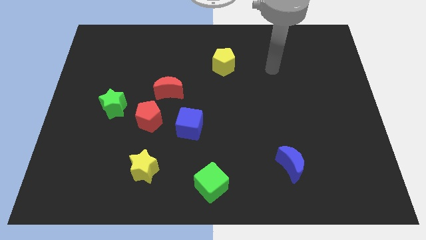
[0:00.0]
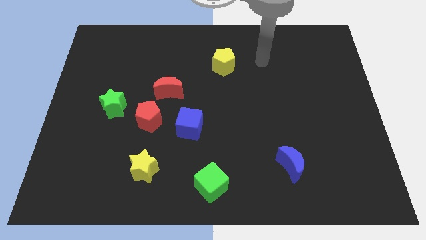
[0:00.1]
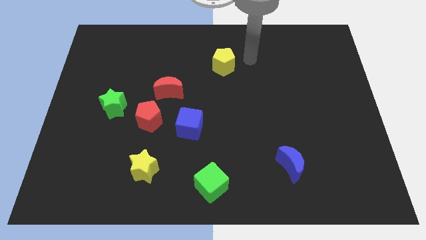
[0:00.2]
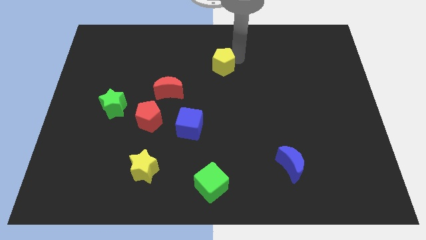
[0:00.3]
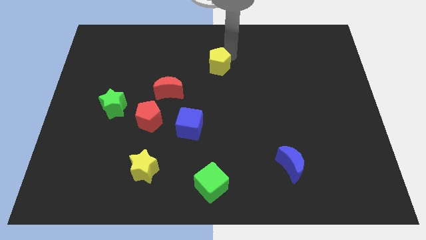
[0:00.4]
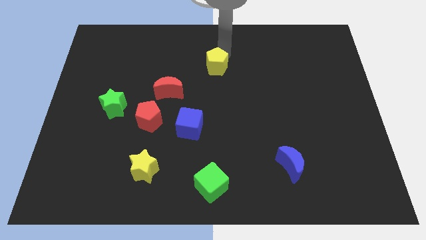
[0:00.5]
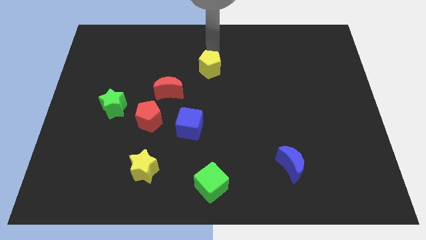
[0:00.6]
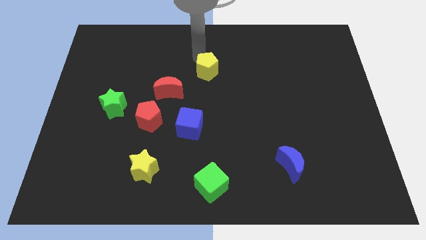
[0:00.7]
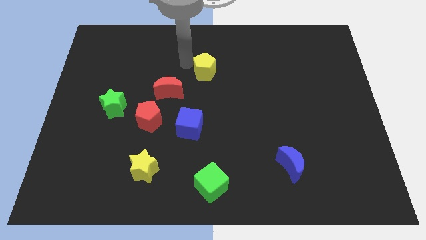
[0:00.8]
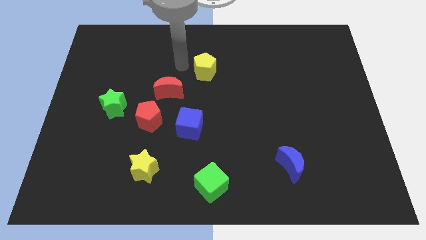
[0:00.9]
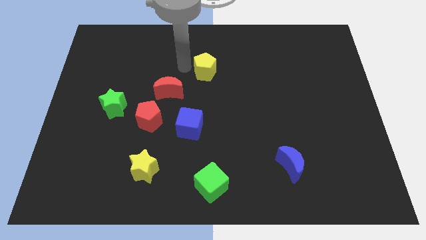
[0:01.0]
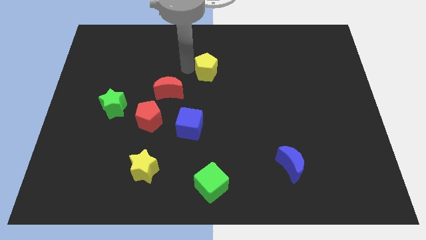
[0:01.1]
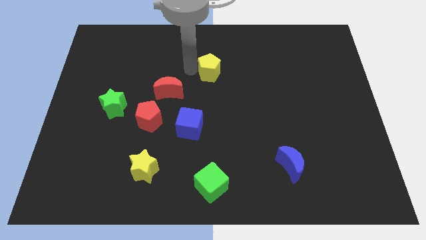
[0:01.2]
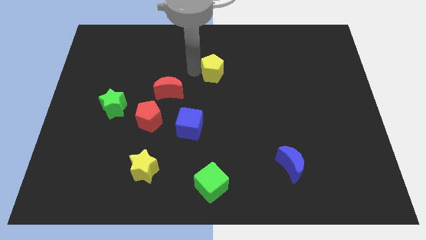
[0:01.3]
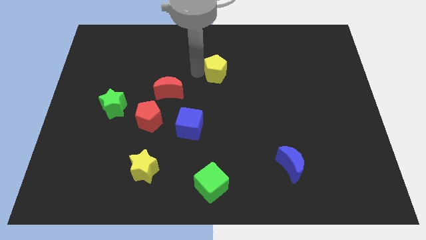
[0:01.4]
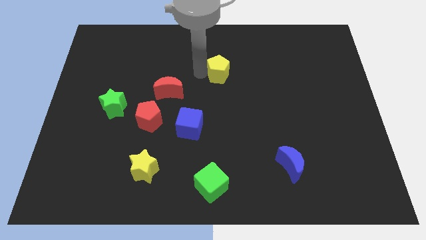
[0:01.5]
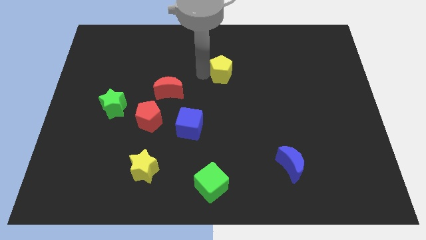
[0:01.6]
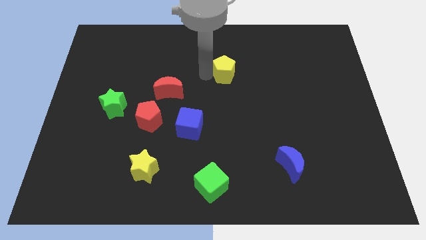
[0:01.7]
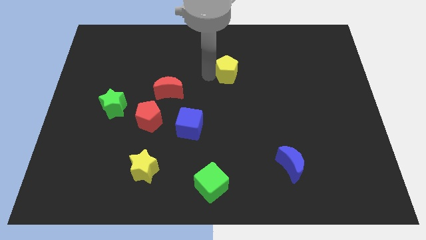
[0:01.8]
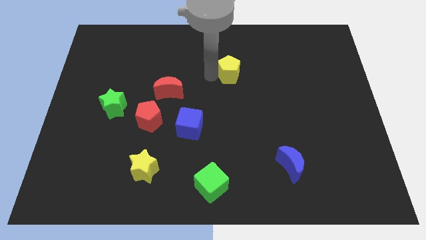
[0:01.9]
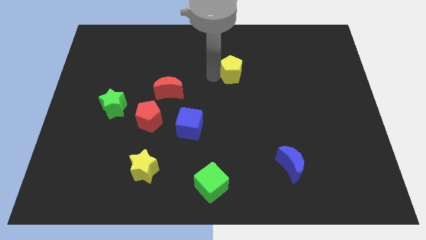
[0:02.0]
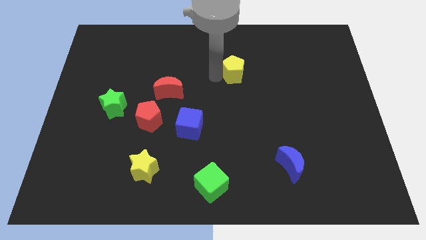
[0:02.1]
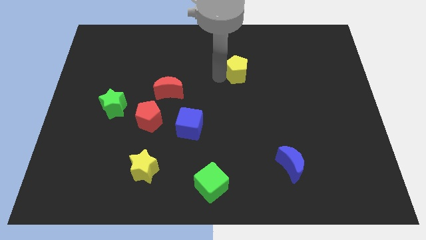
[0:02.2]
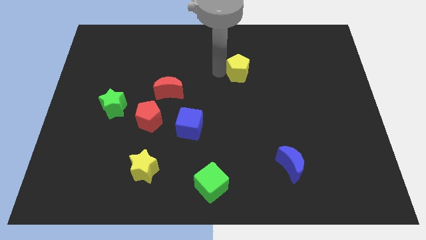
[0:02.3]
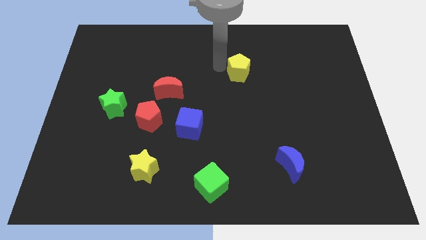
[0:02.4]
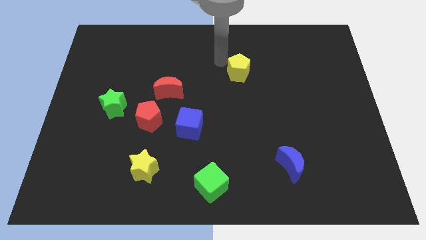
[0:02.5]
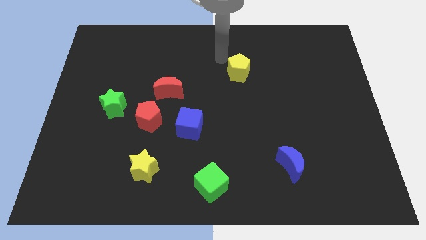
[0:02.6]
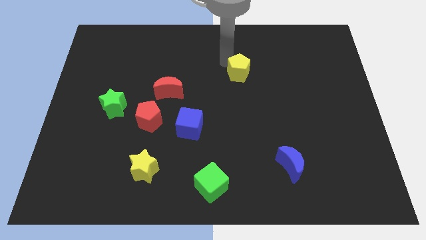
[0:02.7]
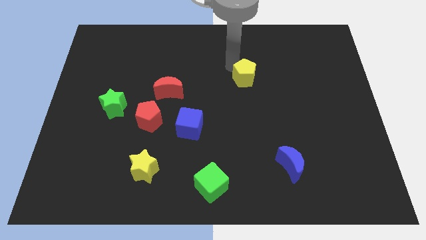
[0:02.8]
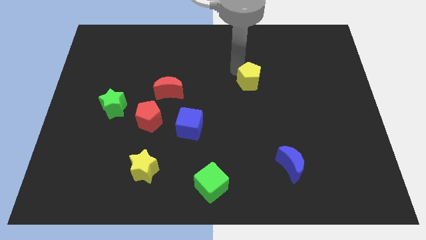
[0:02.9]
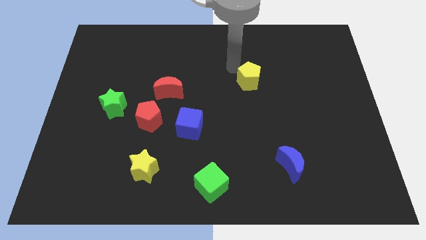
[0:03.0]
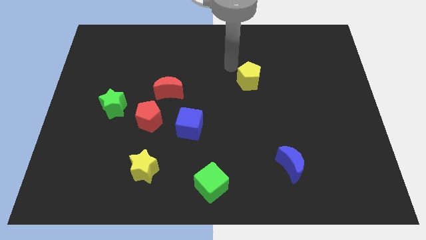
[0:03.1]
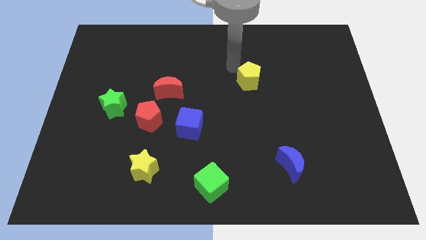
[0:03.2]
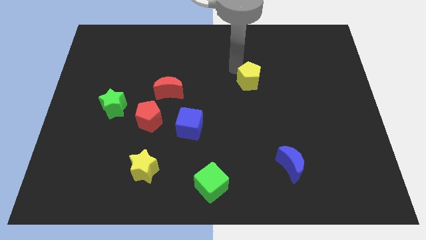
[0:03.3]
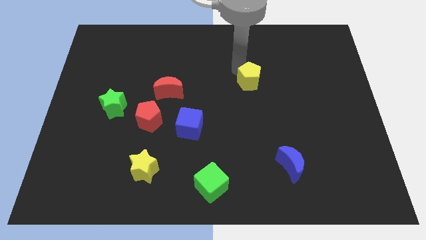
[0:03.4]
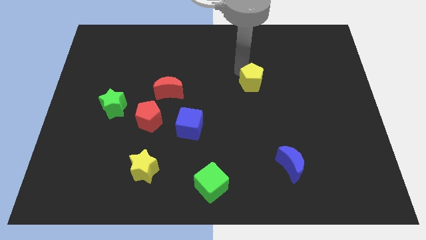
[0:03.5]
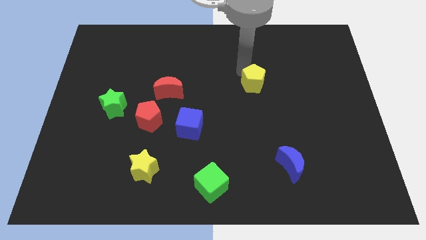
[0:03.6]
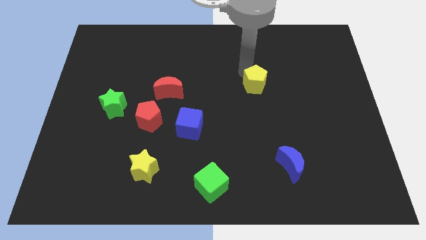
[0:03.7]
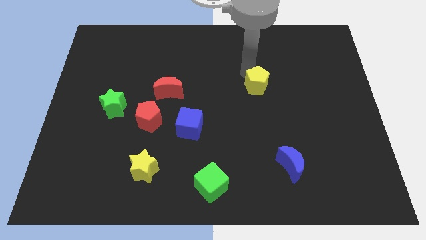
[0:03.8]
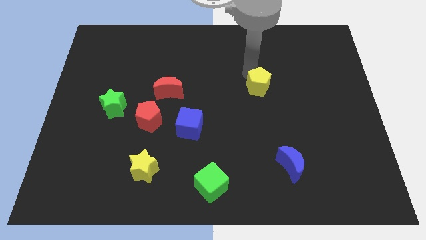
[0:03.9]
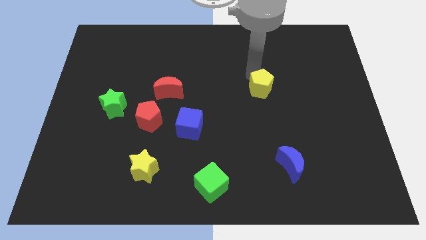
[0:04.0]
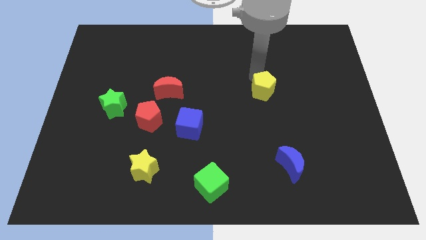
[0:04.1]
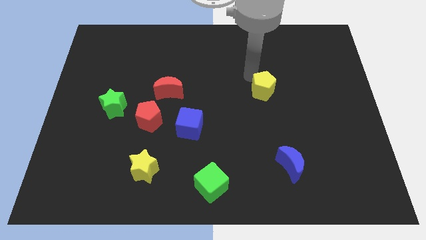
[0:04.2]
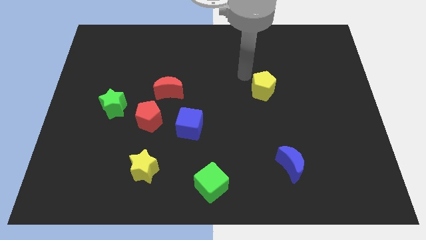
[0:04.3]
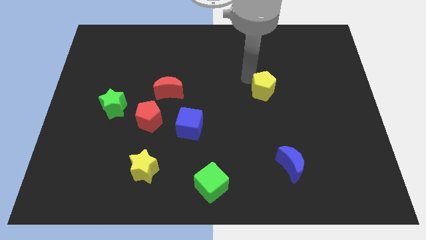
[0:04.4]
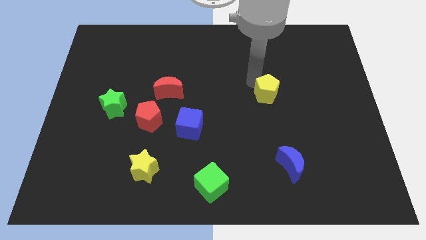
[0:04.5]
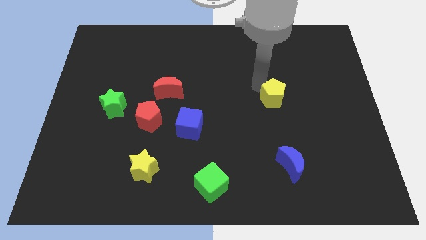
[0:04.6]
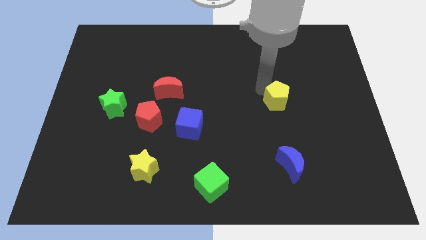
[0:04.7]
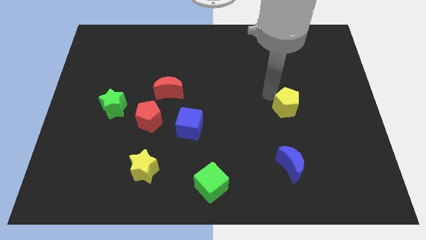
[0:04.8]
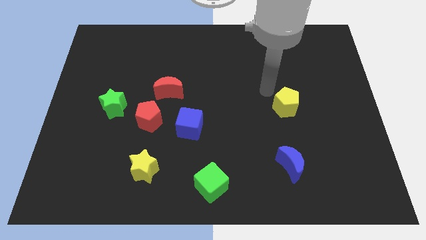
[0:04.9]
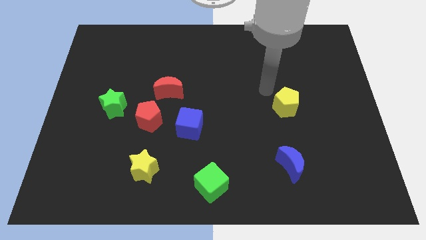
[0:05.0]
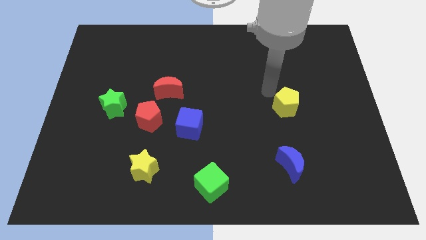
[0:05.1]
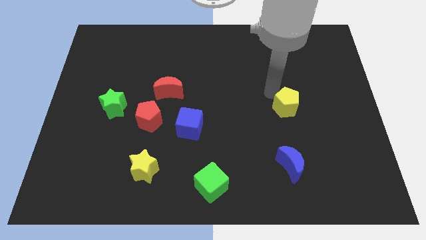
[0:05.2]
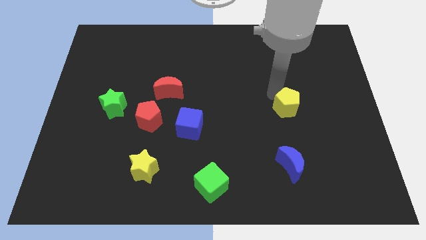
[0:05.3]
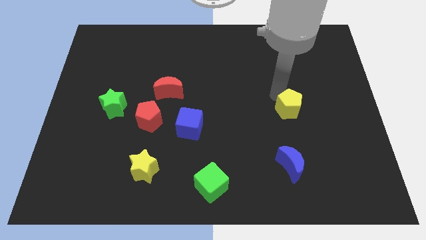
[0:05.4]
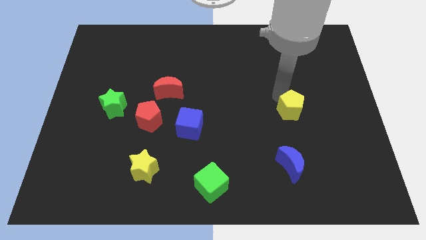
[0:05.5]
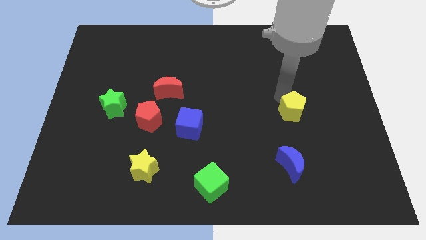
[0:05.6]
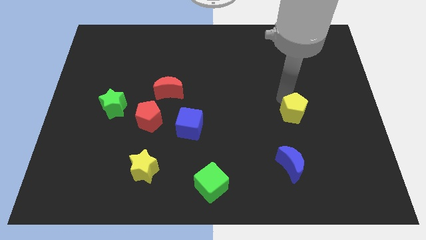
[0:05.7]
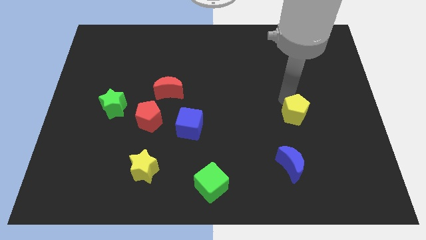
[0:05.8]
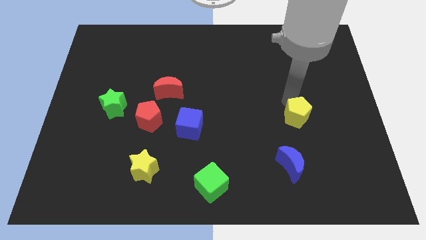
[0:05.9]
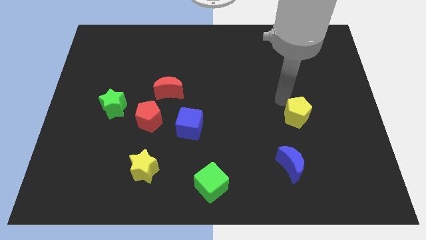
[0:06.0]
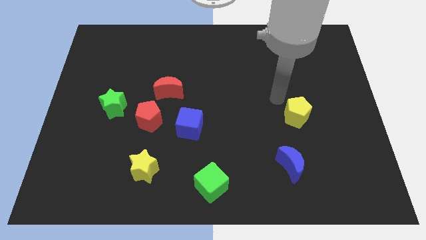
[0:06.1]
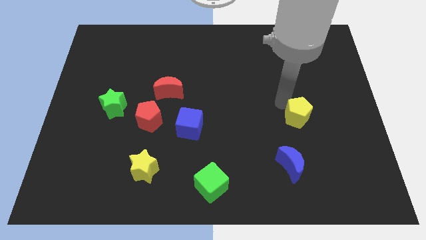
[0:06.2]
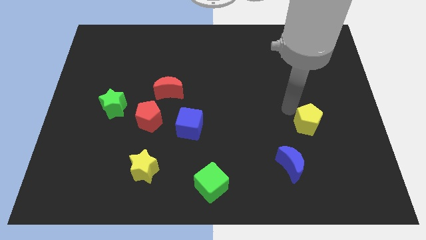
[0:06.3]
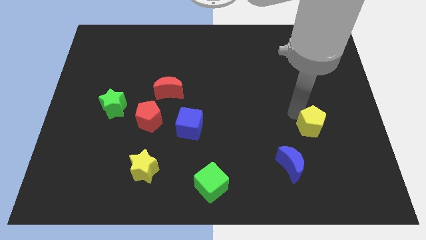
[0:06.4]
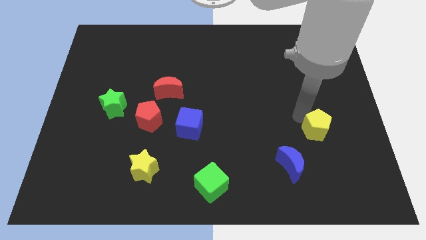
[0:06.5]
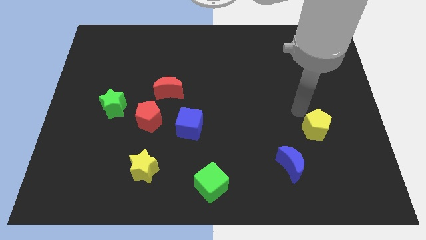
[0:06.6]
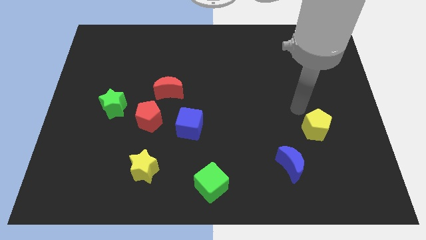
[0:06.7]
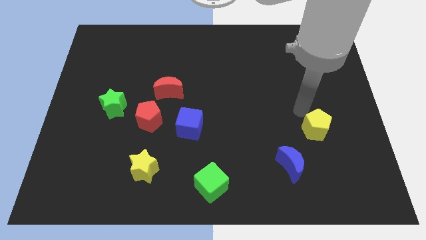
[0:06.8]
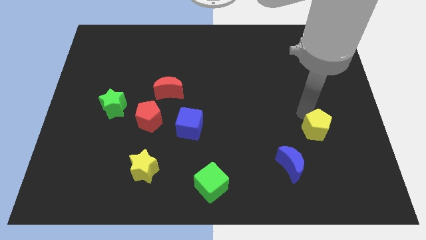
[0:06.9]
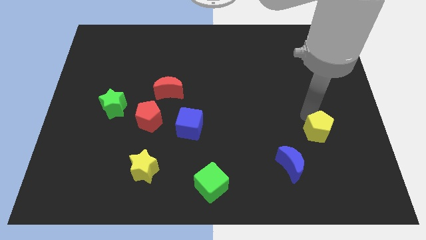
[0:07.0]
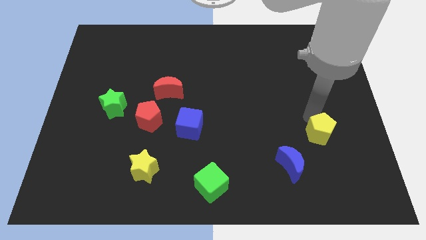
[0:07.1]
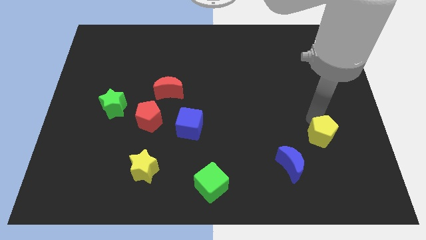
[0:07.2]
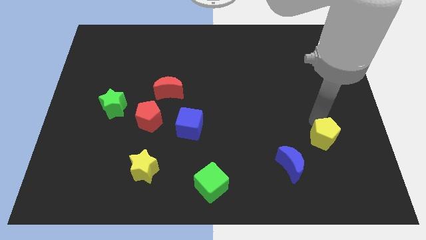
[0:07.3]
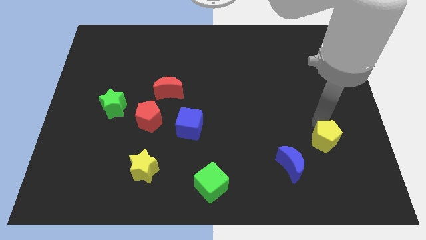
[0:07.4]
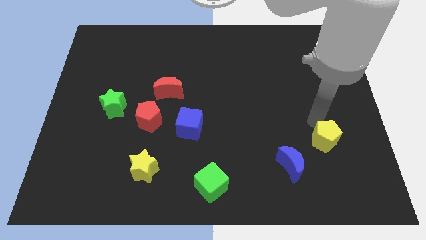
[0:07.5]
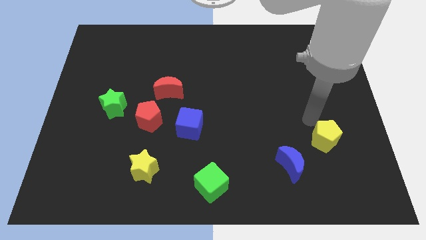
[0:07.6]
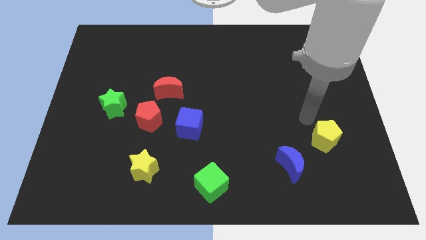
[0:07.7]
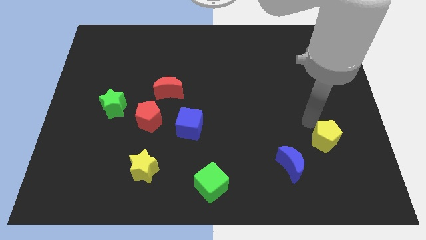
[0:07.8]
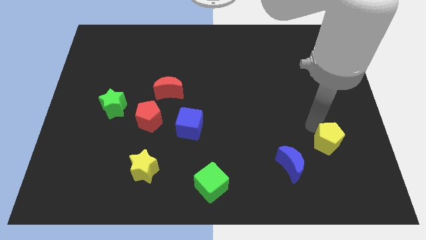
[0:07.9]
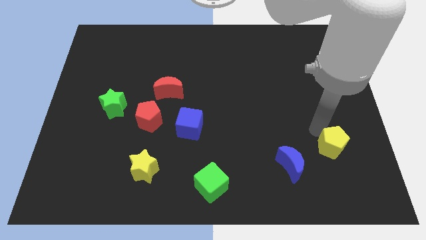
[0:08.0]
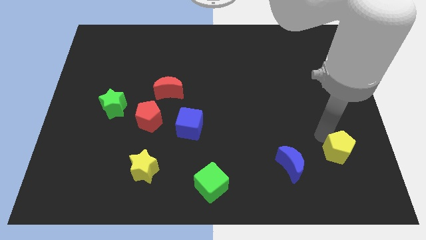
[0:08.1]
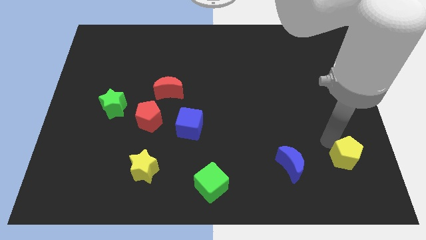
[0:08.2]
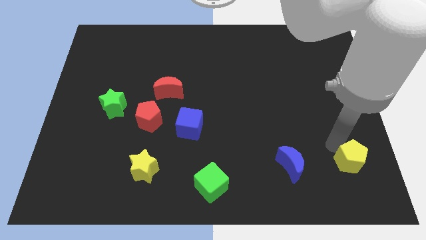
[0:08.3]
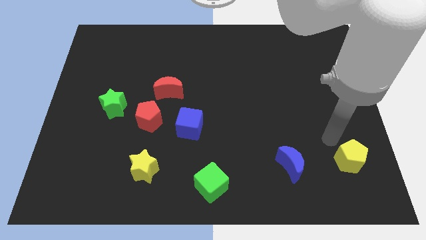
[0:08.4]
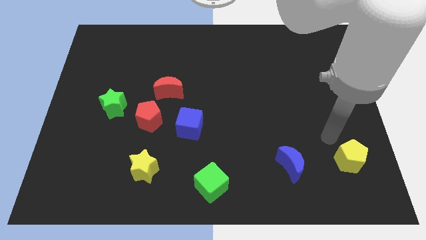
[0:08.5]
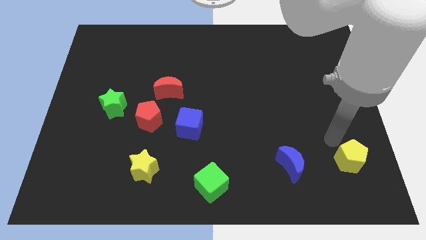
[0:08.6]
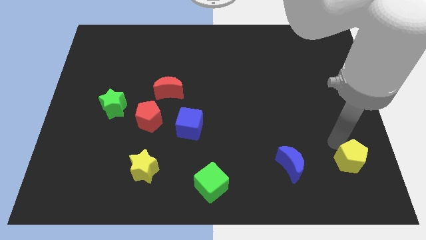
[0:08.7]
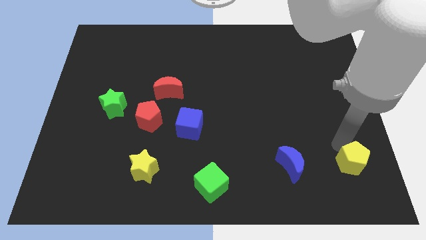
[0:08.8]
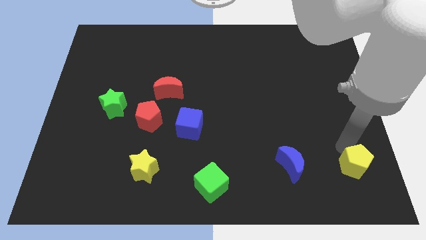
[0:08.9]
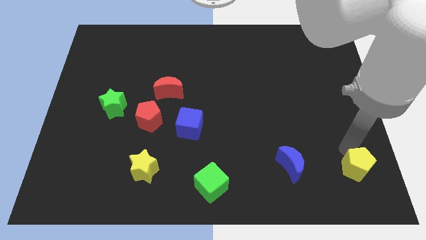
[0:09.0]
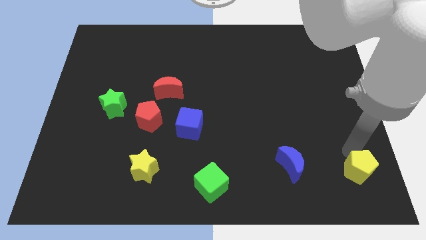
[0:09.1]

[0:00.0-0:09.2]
put the yellow pentagon to the bottom right of the board
